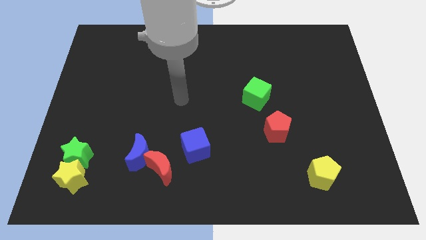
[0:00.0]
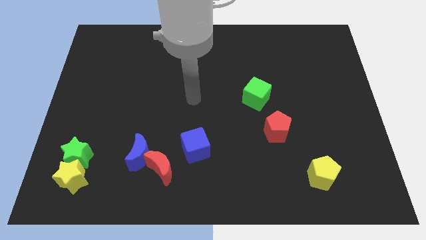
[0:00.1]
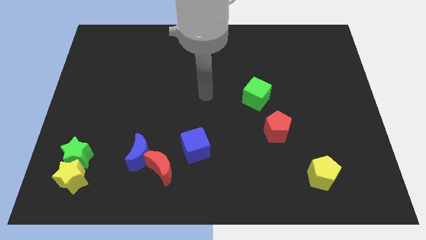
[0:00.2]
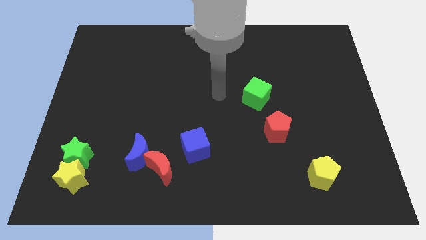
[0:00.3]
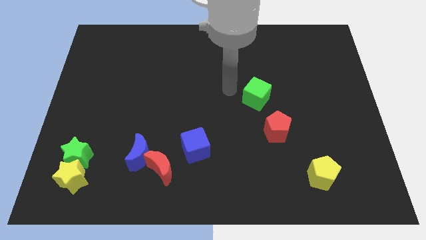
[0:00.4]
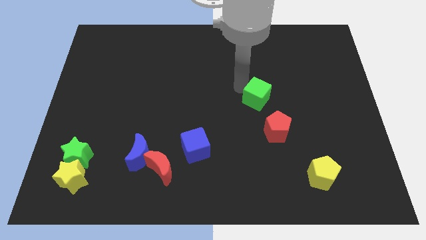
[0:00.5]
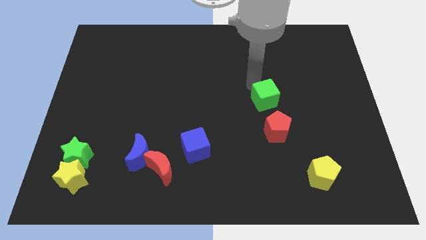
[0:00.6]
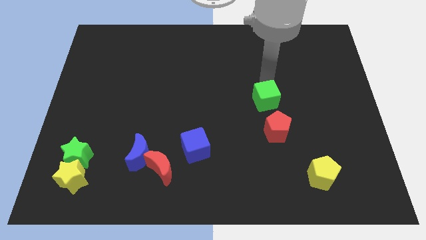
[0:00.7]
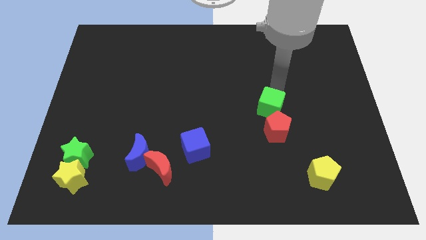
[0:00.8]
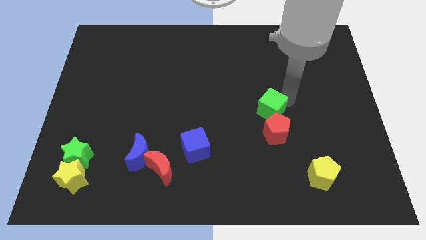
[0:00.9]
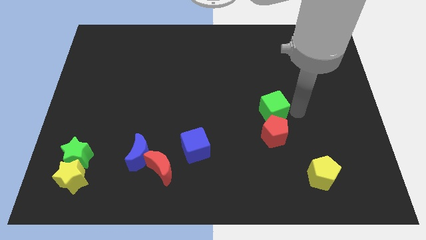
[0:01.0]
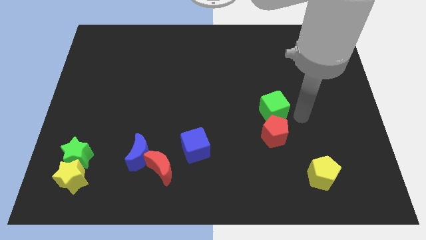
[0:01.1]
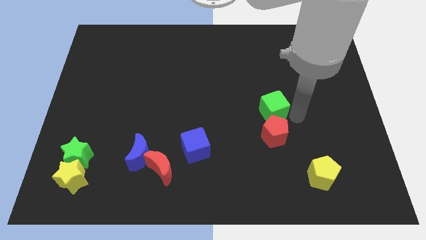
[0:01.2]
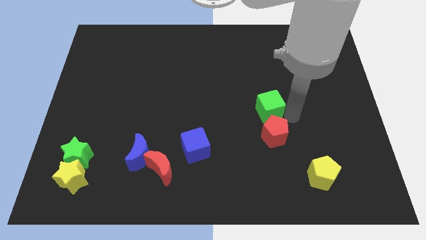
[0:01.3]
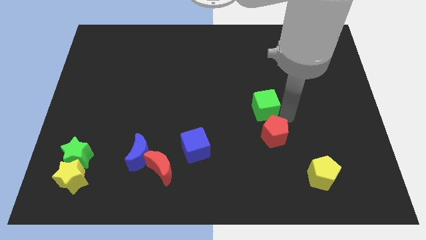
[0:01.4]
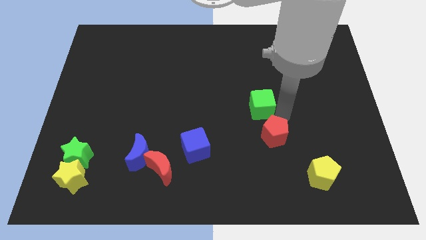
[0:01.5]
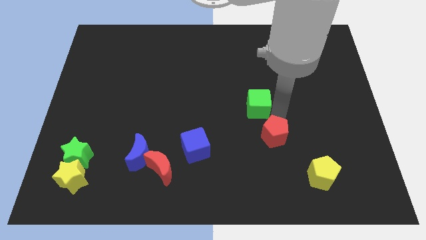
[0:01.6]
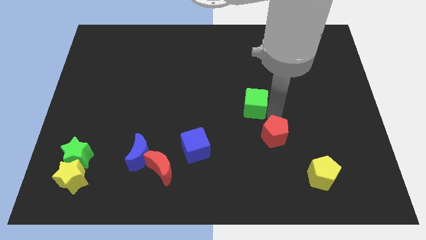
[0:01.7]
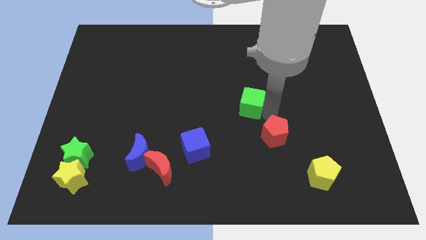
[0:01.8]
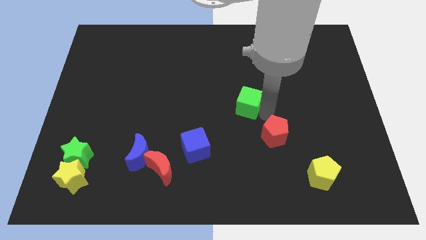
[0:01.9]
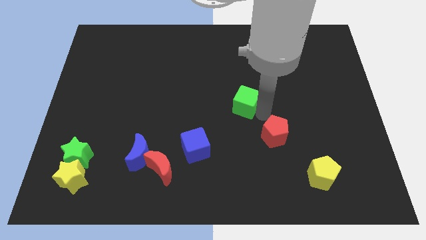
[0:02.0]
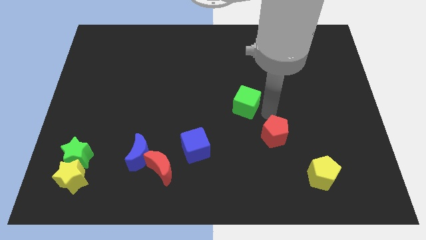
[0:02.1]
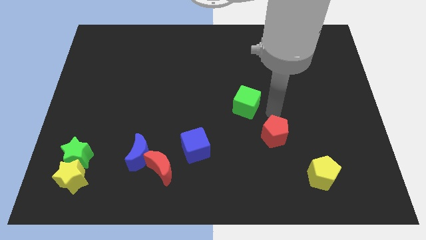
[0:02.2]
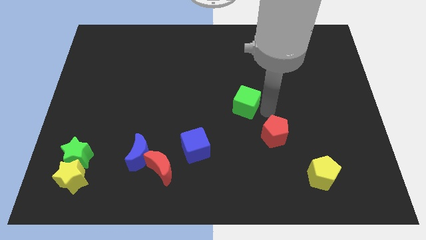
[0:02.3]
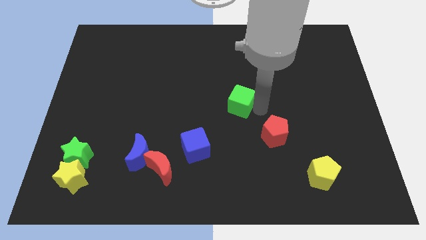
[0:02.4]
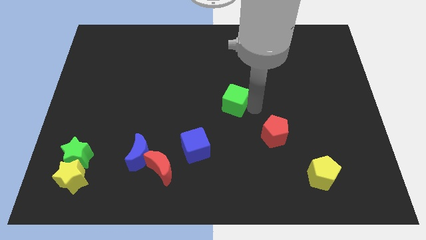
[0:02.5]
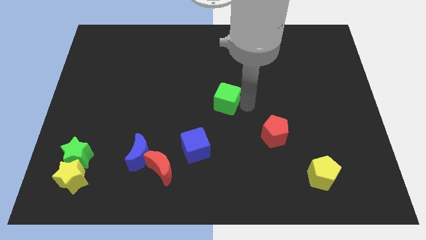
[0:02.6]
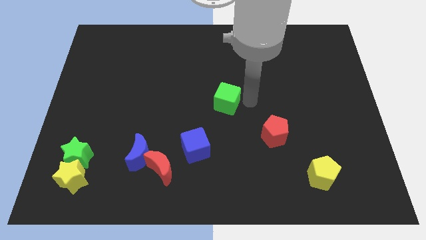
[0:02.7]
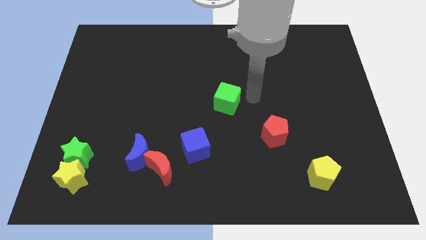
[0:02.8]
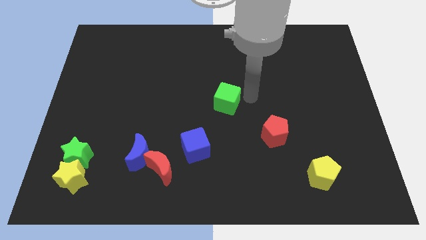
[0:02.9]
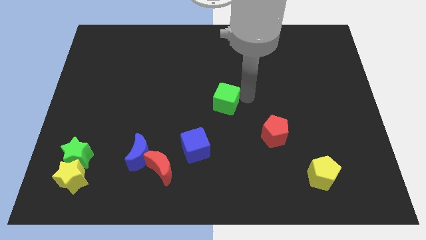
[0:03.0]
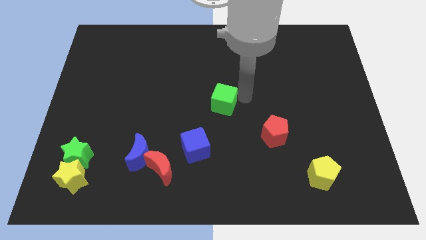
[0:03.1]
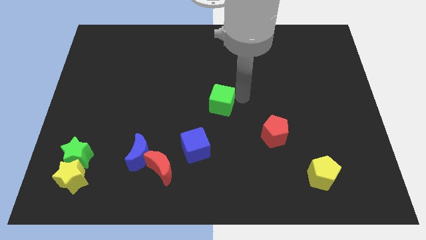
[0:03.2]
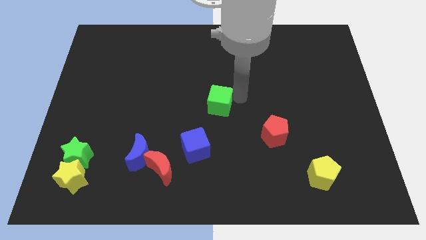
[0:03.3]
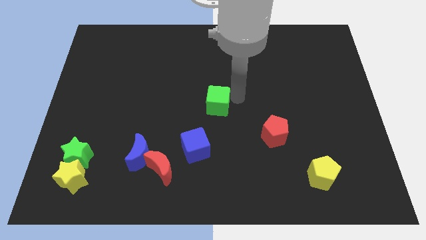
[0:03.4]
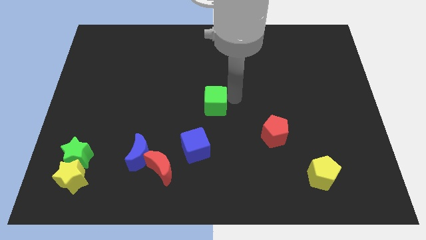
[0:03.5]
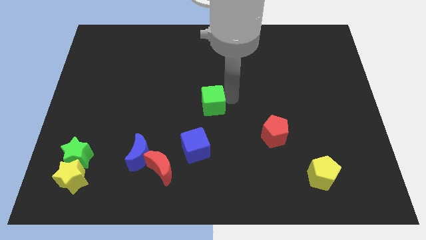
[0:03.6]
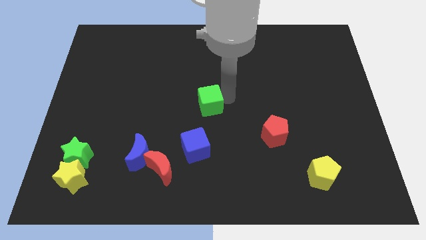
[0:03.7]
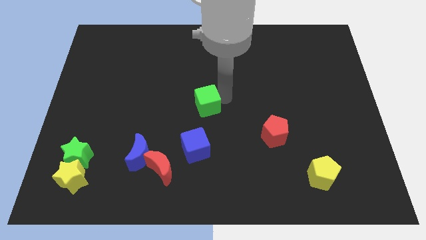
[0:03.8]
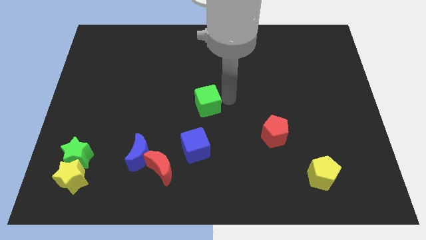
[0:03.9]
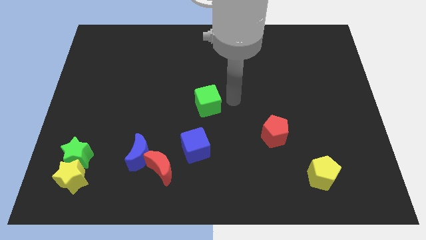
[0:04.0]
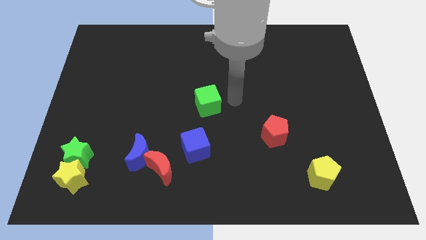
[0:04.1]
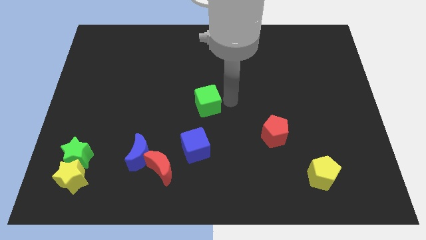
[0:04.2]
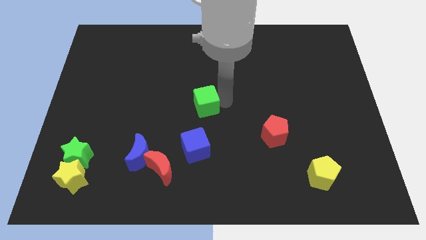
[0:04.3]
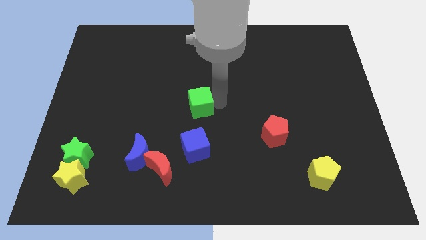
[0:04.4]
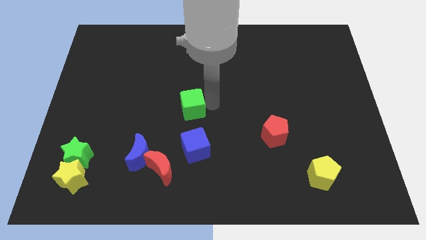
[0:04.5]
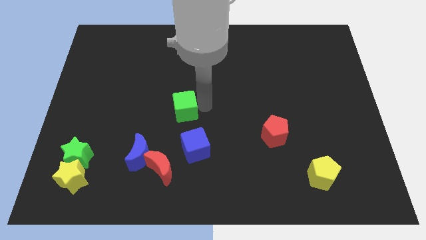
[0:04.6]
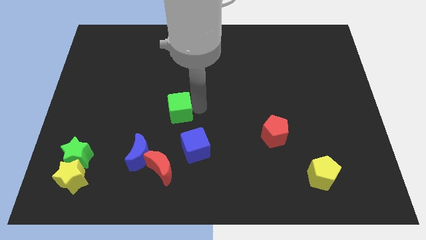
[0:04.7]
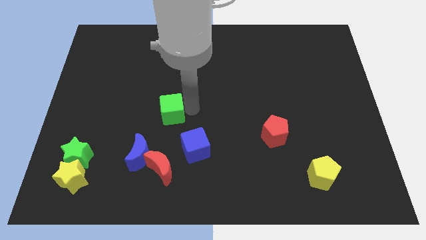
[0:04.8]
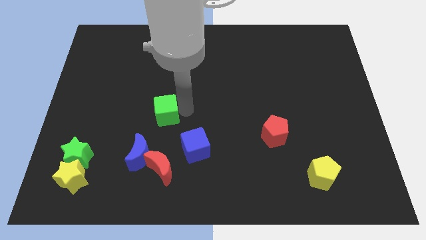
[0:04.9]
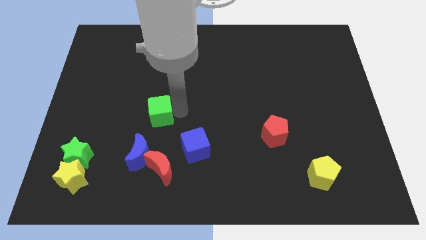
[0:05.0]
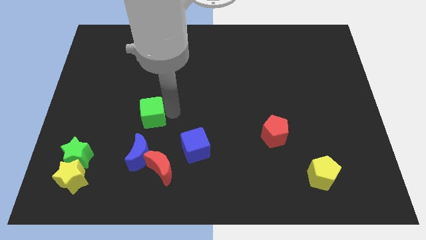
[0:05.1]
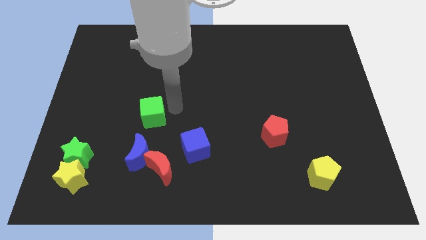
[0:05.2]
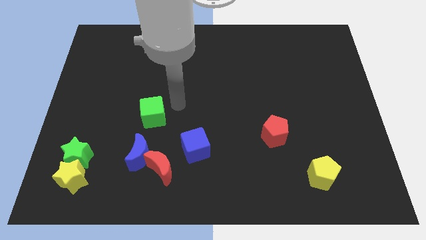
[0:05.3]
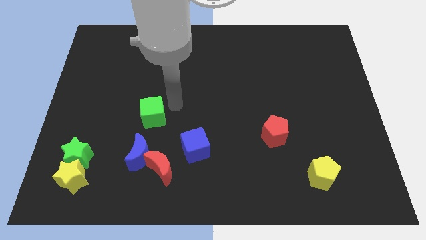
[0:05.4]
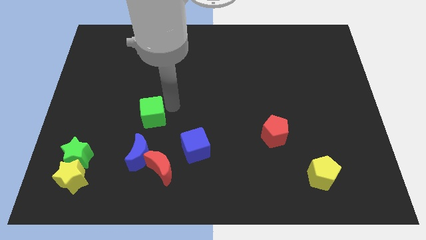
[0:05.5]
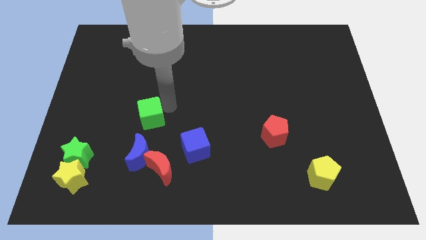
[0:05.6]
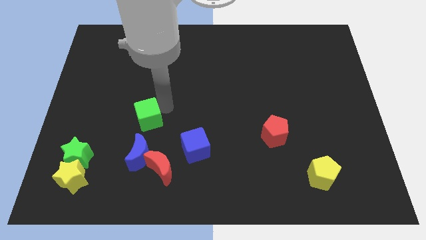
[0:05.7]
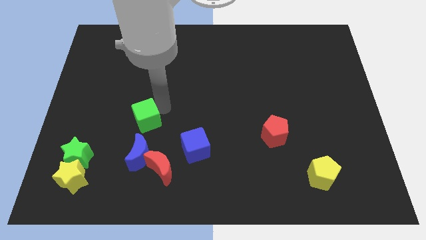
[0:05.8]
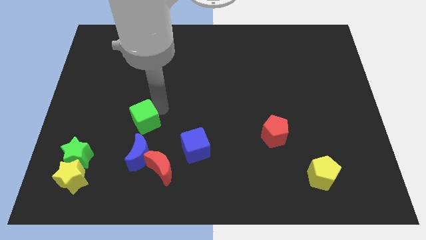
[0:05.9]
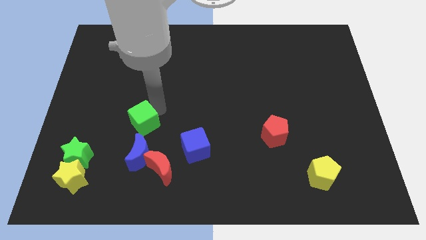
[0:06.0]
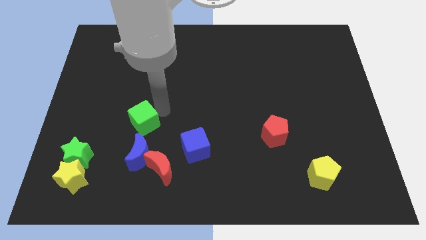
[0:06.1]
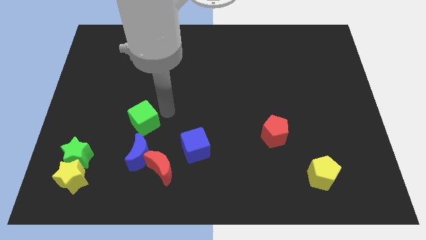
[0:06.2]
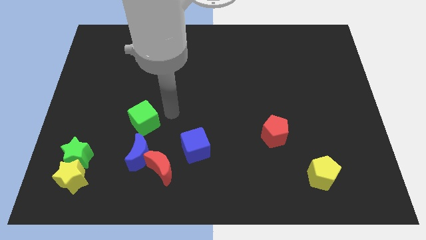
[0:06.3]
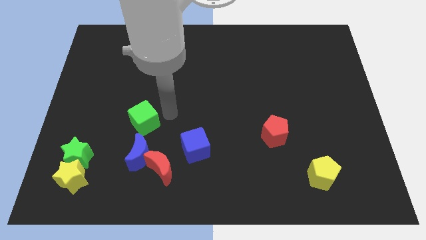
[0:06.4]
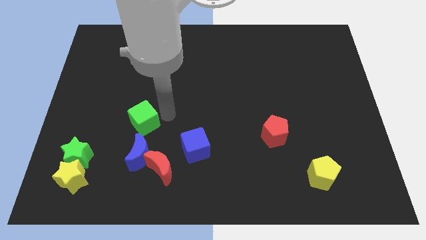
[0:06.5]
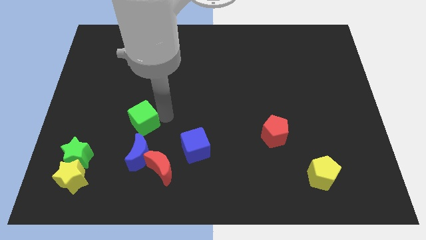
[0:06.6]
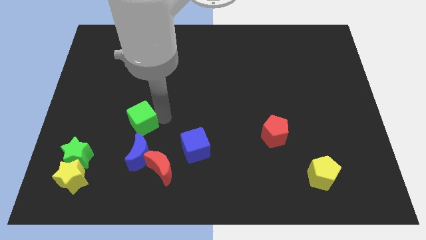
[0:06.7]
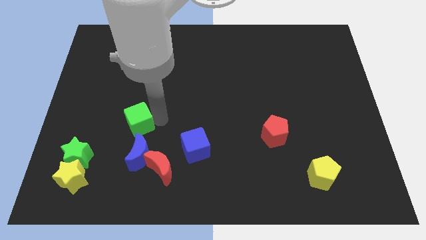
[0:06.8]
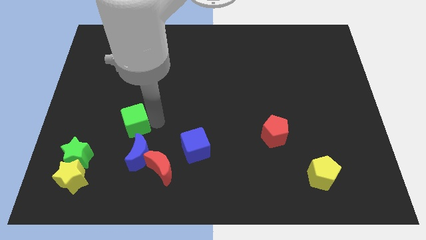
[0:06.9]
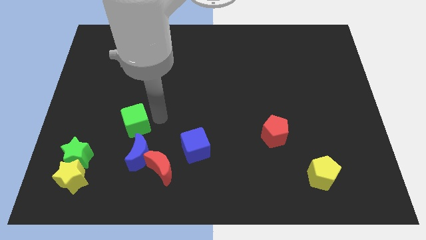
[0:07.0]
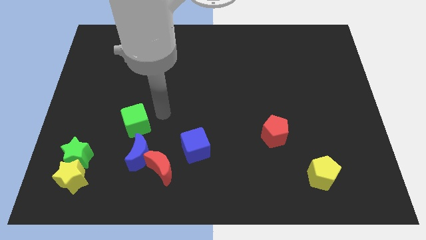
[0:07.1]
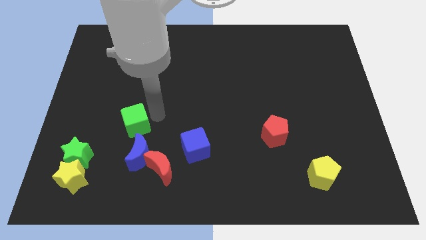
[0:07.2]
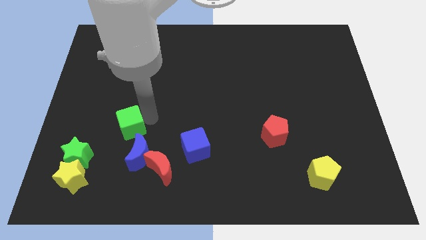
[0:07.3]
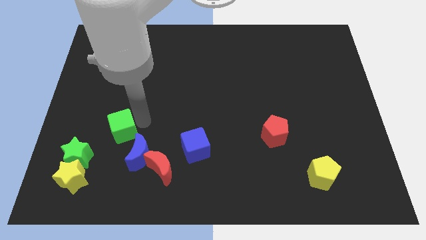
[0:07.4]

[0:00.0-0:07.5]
move the green cube to the top right of the green star

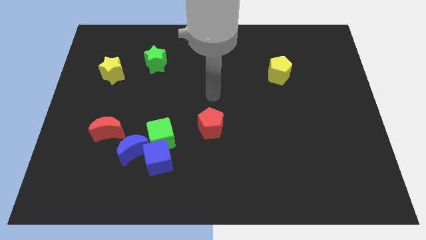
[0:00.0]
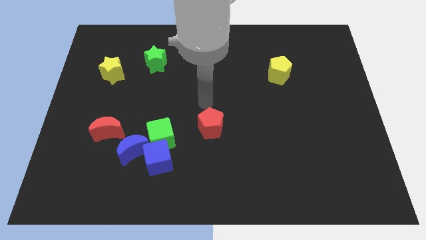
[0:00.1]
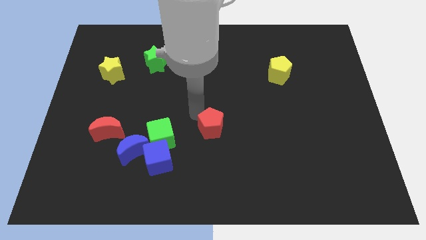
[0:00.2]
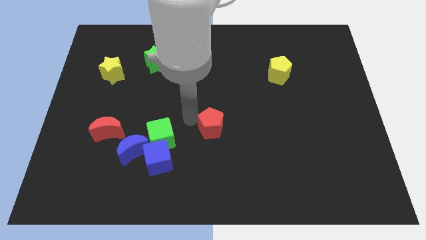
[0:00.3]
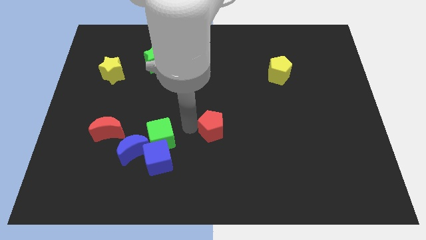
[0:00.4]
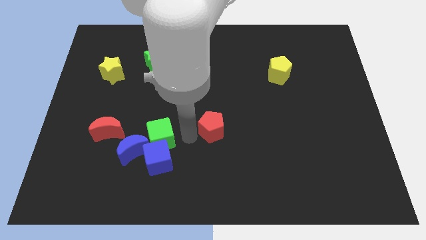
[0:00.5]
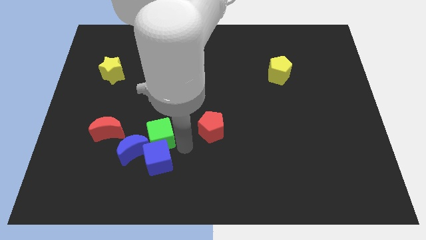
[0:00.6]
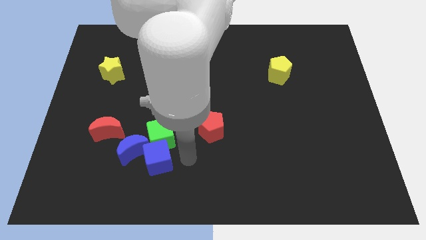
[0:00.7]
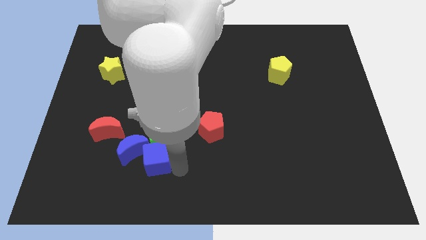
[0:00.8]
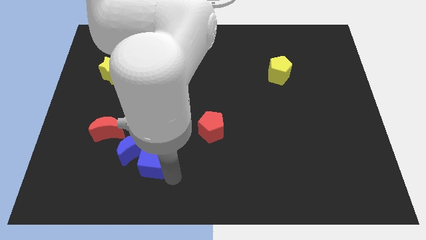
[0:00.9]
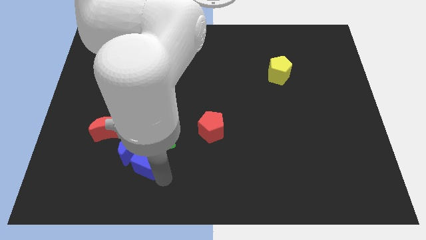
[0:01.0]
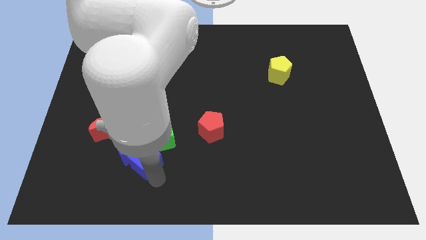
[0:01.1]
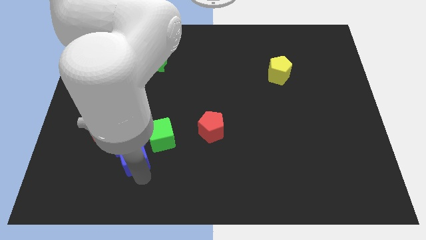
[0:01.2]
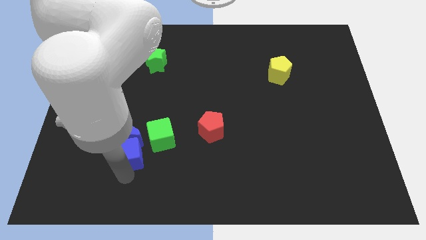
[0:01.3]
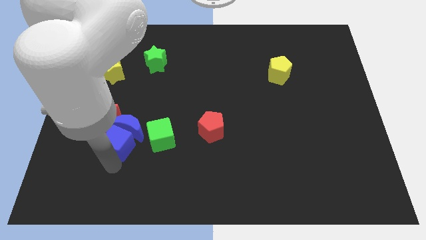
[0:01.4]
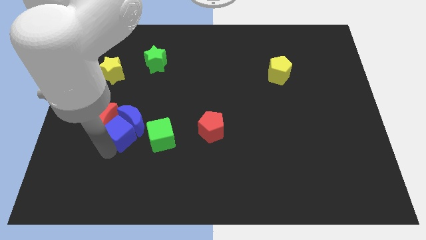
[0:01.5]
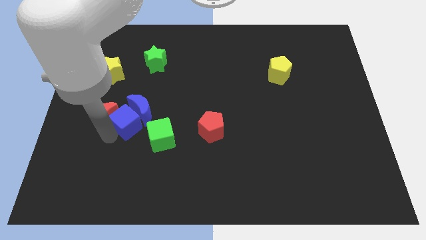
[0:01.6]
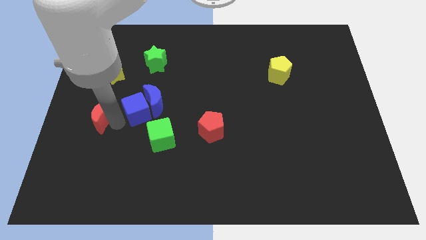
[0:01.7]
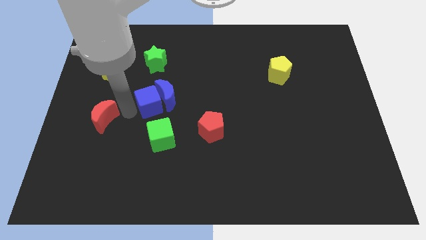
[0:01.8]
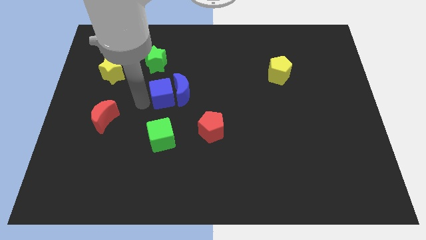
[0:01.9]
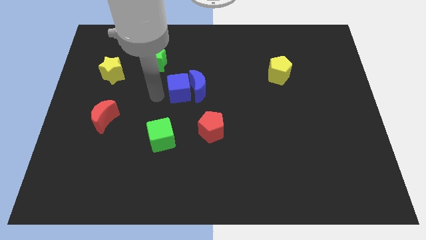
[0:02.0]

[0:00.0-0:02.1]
push the blue moon above the red pentagon
